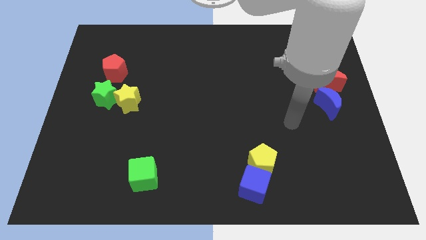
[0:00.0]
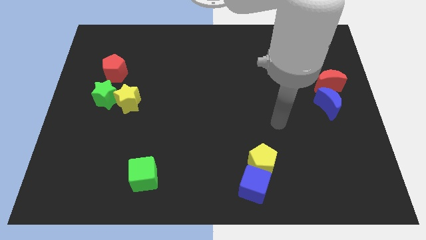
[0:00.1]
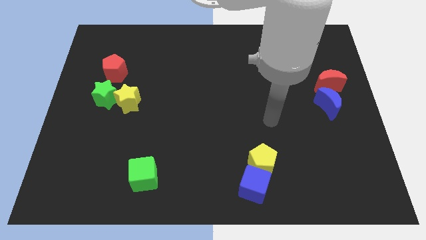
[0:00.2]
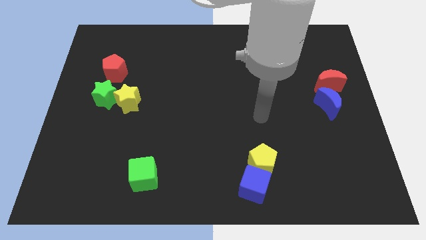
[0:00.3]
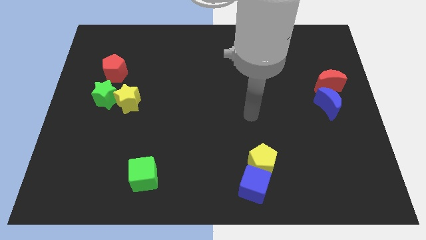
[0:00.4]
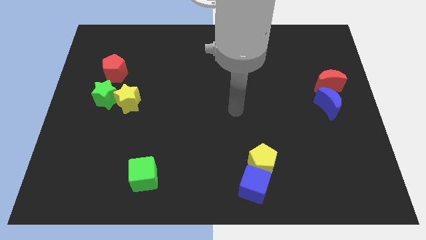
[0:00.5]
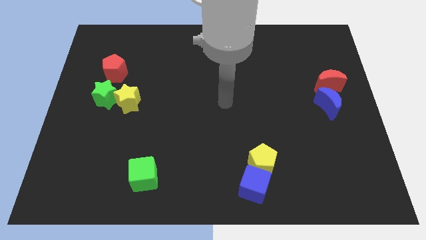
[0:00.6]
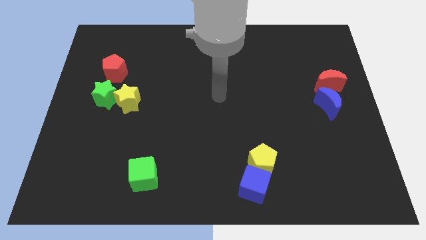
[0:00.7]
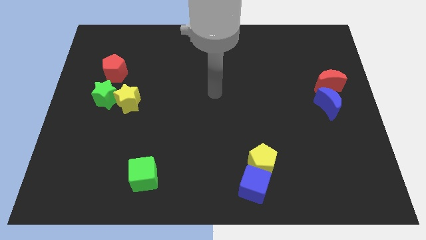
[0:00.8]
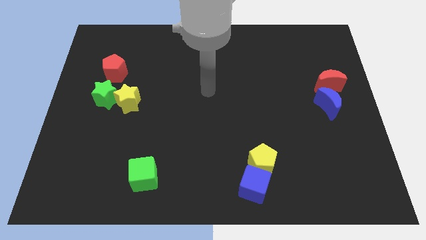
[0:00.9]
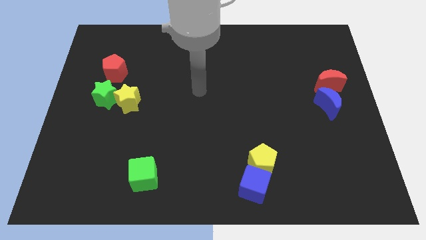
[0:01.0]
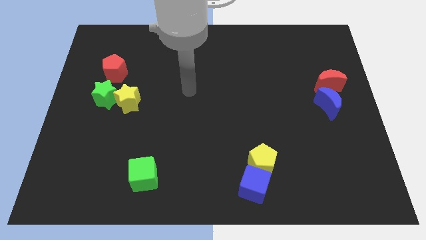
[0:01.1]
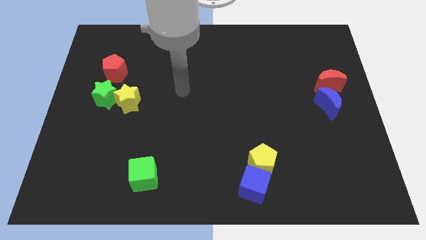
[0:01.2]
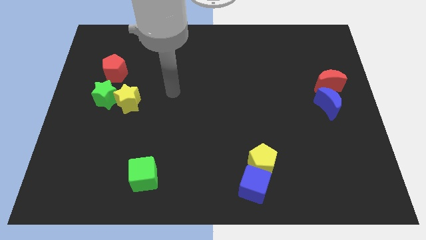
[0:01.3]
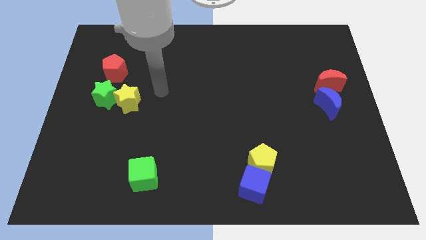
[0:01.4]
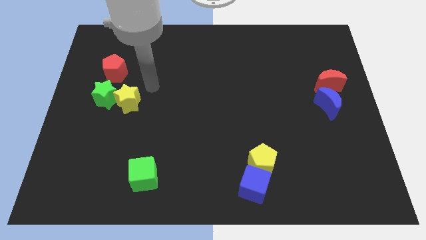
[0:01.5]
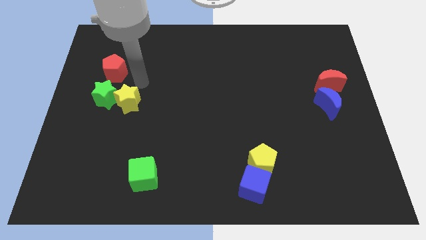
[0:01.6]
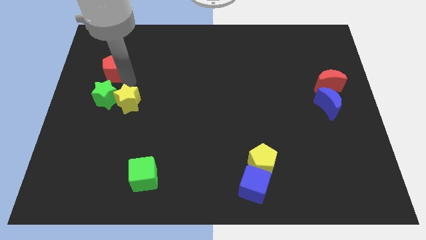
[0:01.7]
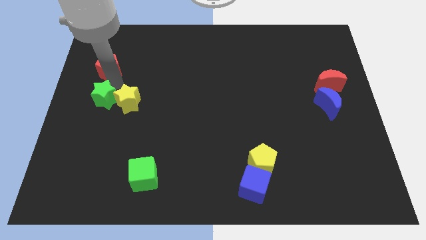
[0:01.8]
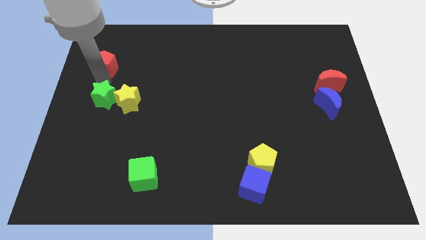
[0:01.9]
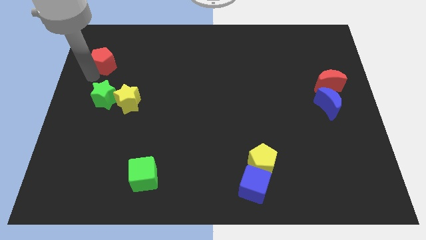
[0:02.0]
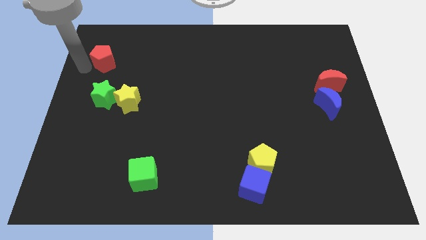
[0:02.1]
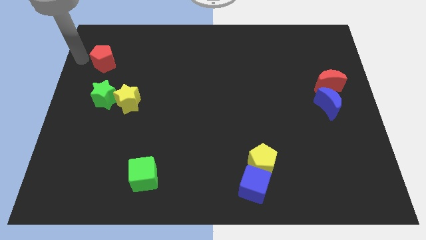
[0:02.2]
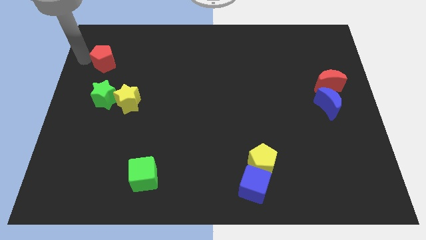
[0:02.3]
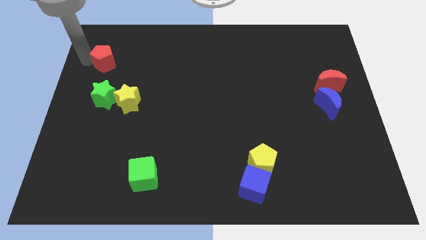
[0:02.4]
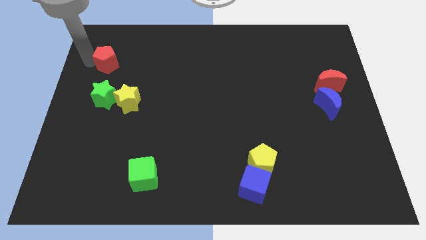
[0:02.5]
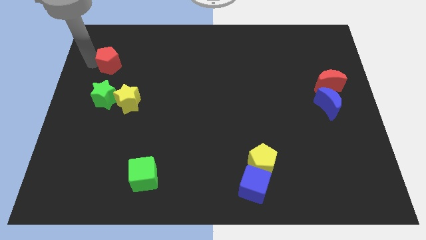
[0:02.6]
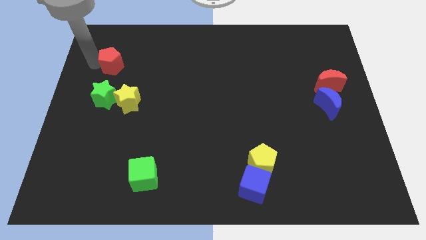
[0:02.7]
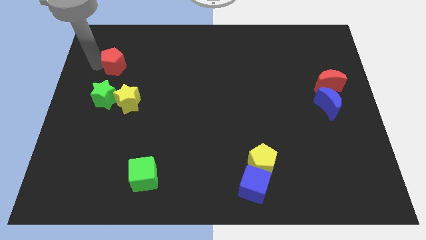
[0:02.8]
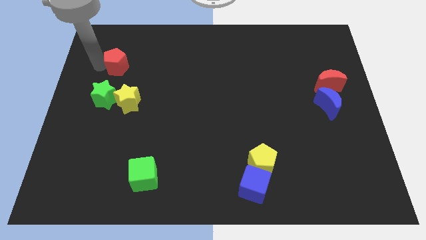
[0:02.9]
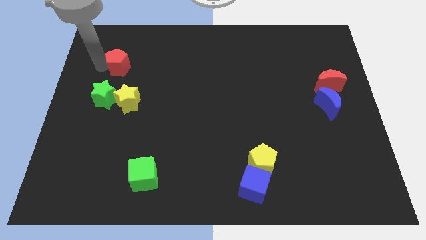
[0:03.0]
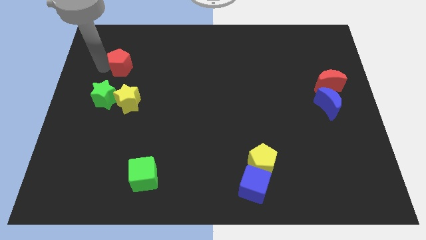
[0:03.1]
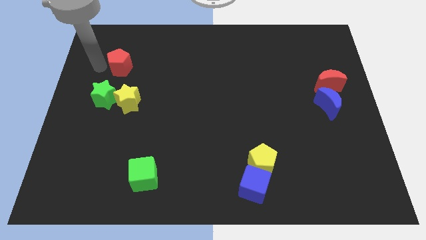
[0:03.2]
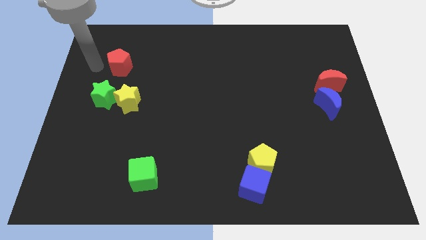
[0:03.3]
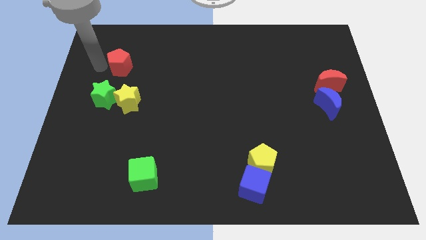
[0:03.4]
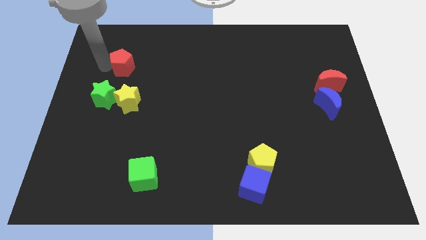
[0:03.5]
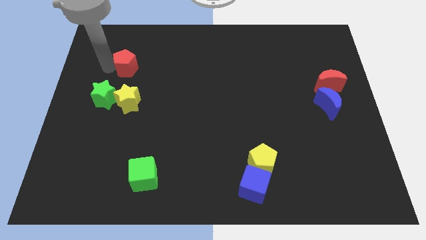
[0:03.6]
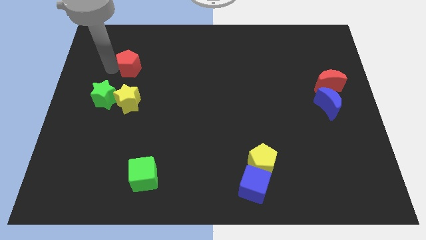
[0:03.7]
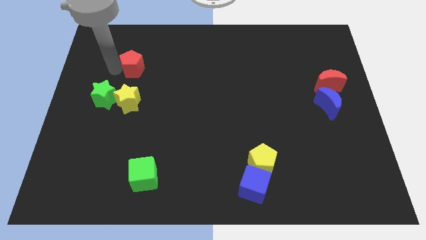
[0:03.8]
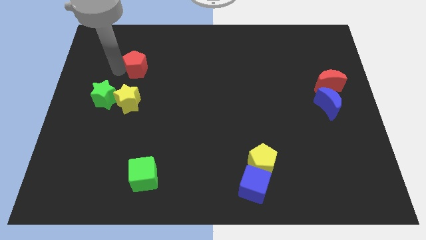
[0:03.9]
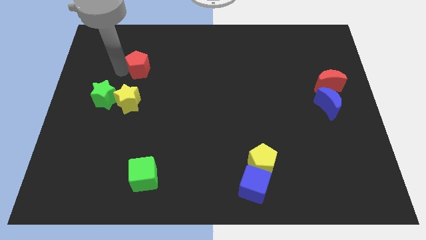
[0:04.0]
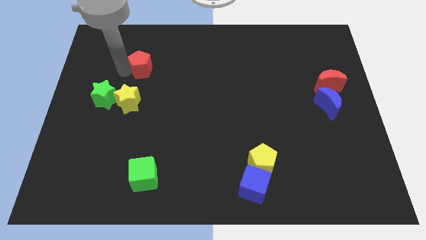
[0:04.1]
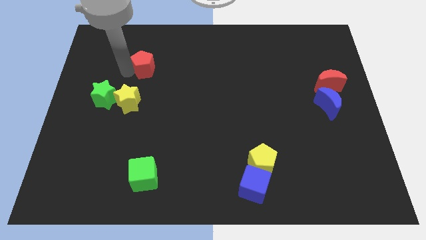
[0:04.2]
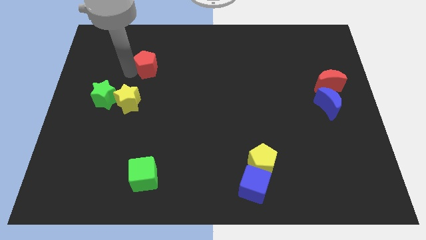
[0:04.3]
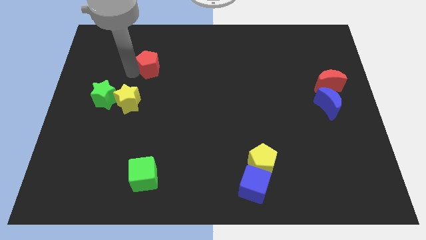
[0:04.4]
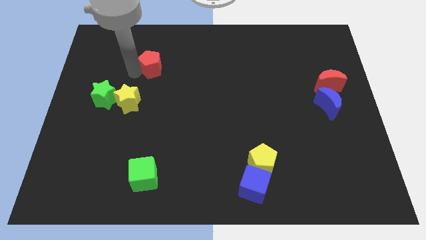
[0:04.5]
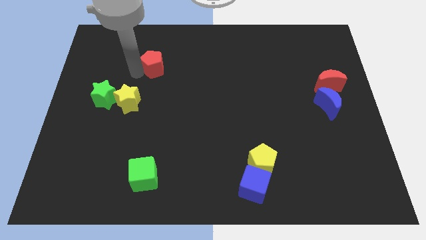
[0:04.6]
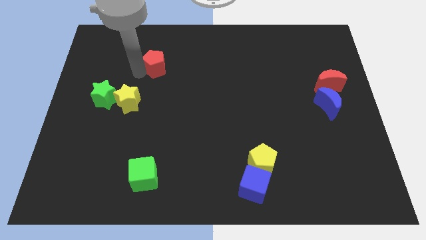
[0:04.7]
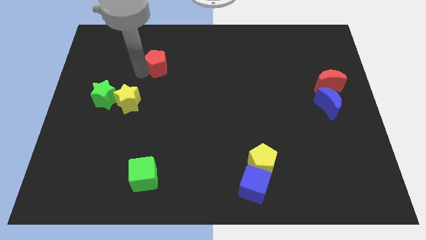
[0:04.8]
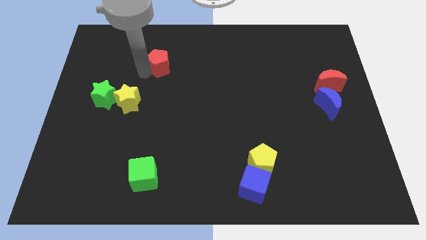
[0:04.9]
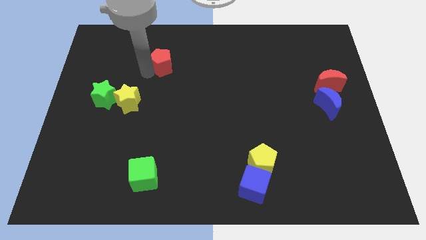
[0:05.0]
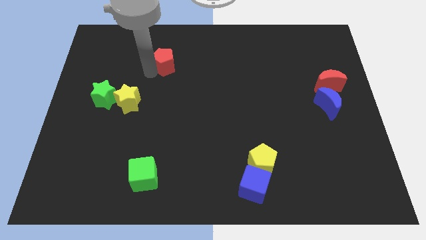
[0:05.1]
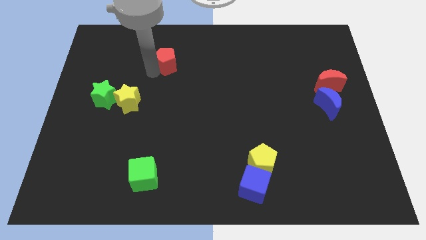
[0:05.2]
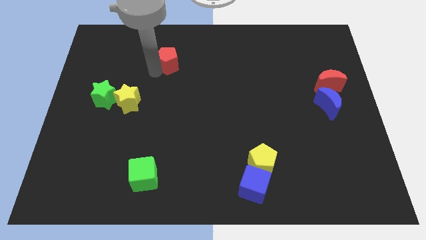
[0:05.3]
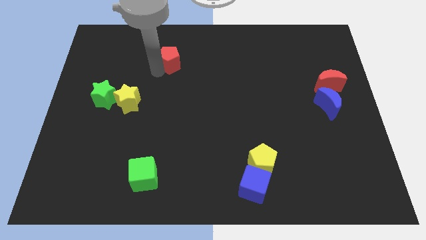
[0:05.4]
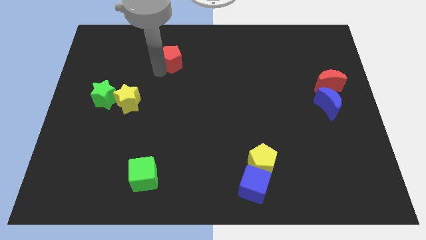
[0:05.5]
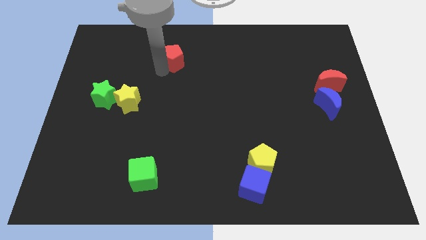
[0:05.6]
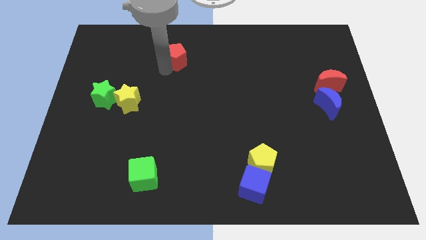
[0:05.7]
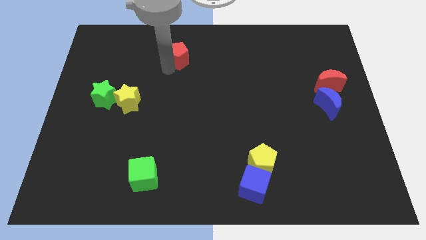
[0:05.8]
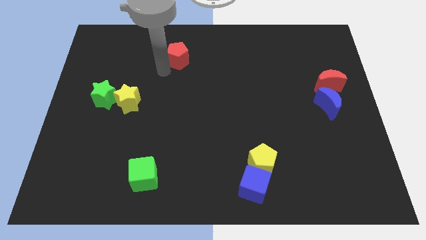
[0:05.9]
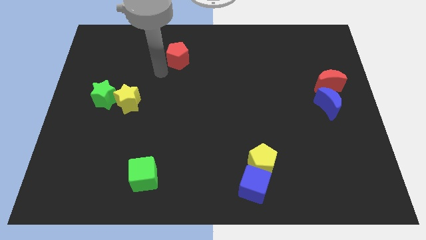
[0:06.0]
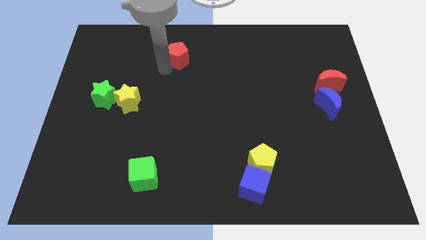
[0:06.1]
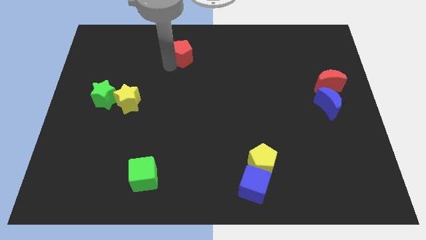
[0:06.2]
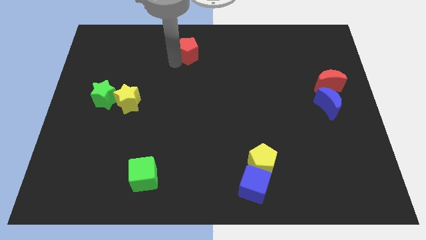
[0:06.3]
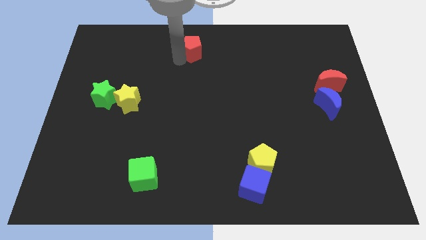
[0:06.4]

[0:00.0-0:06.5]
move the red pentagon to the towards your base
